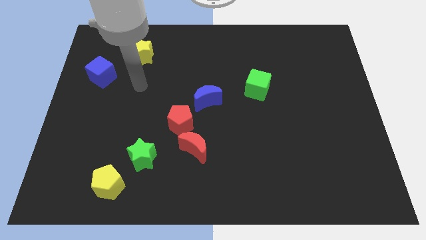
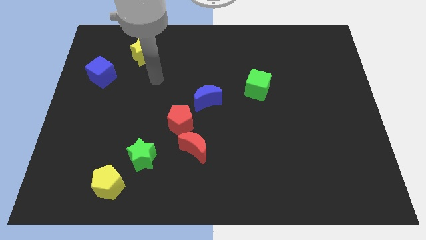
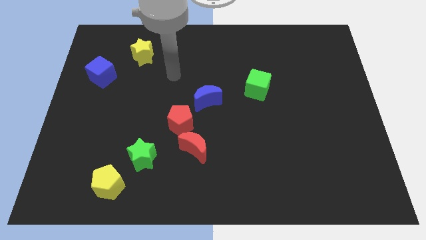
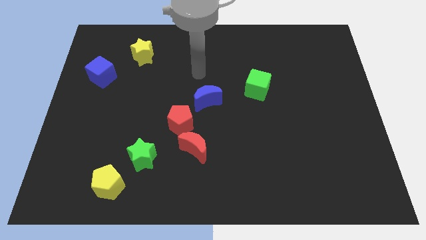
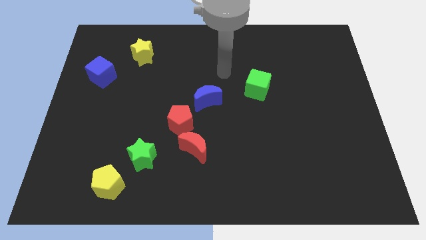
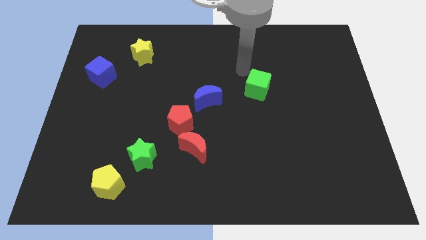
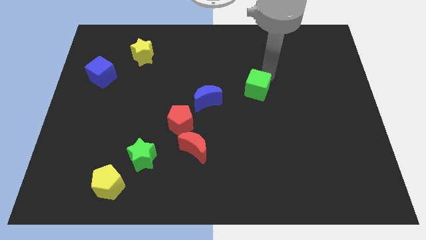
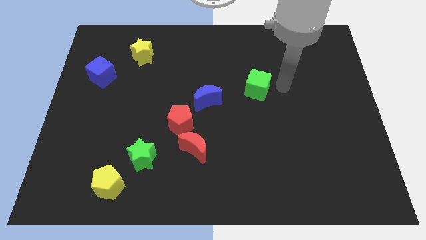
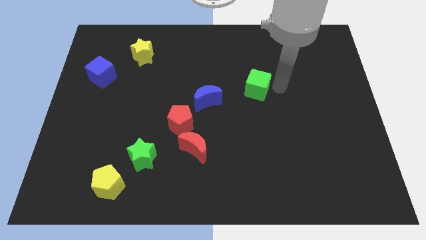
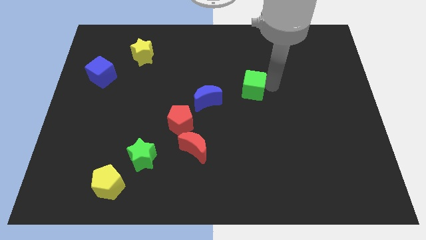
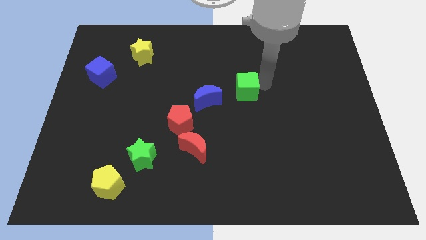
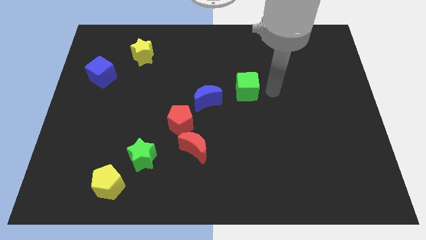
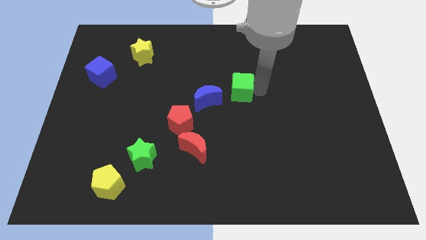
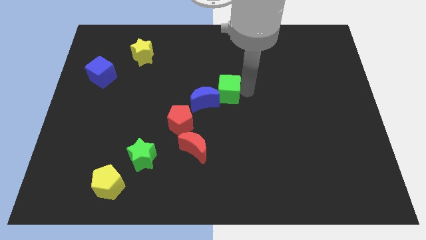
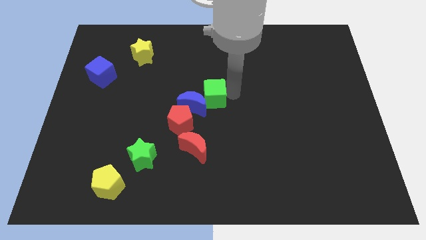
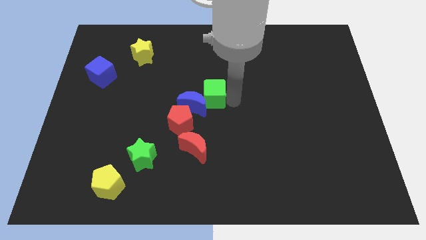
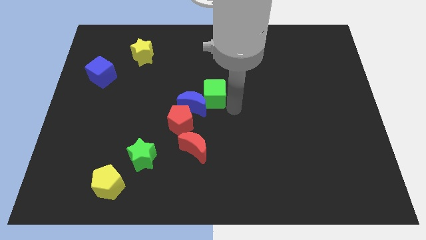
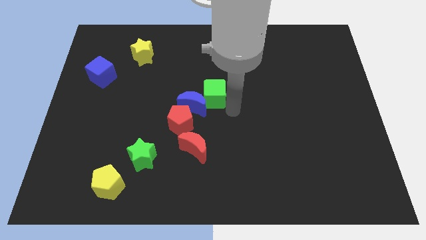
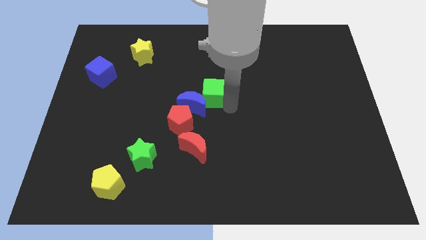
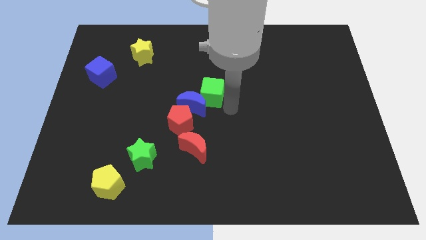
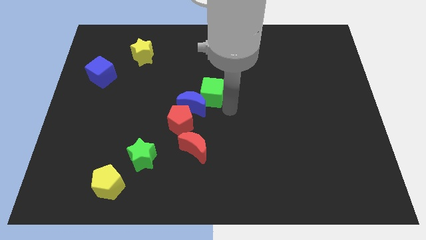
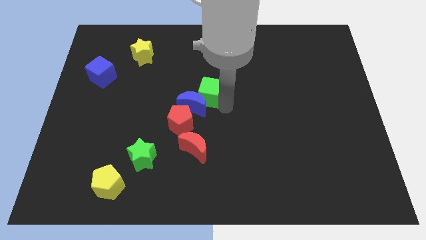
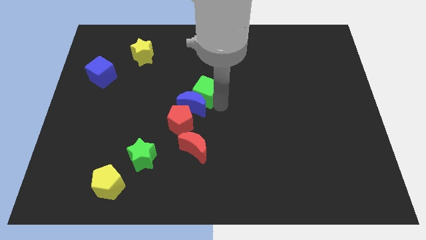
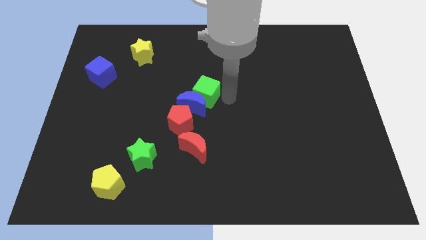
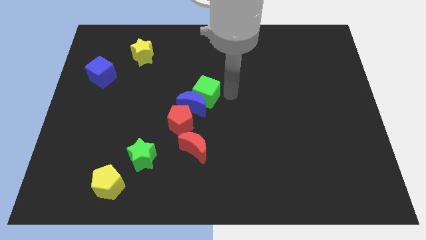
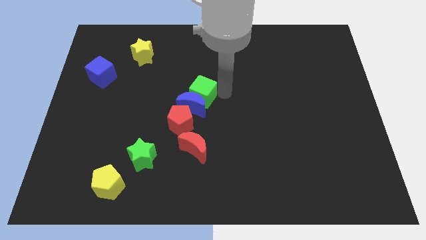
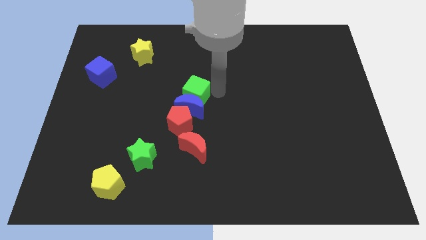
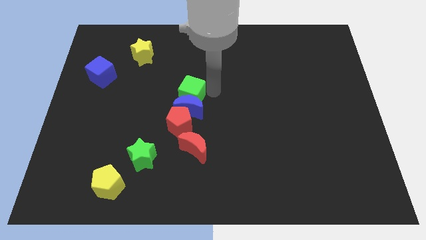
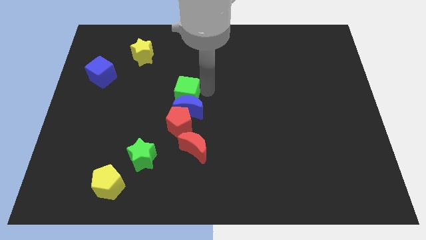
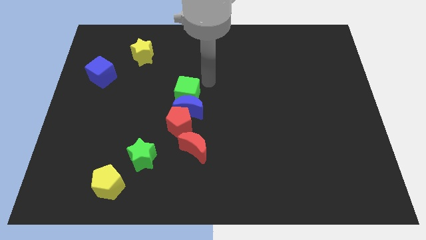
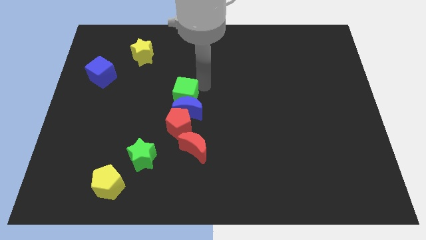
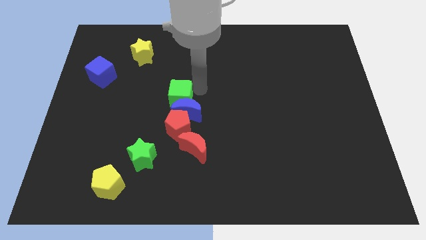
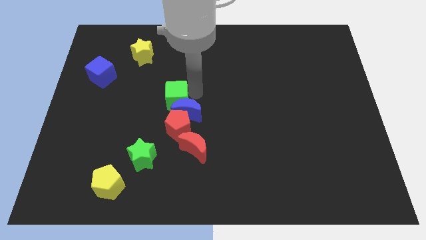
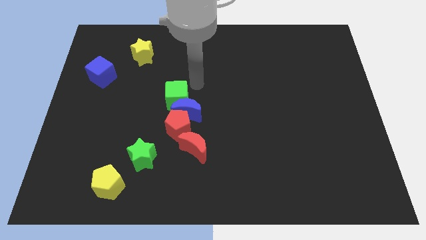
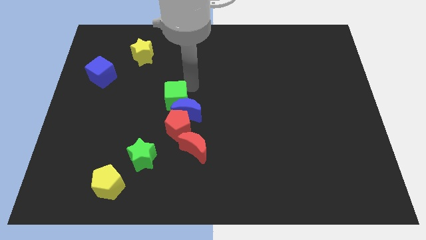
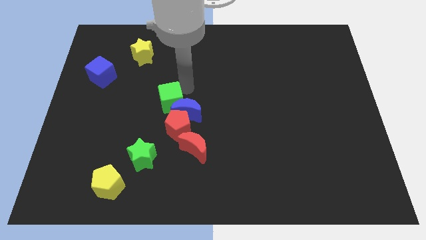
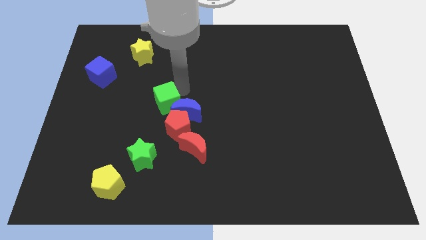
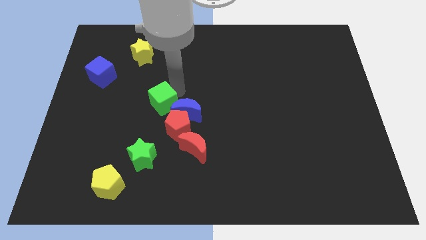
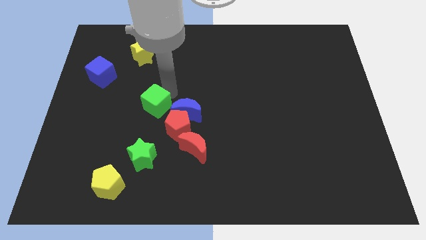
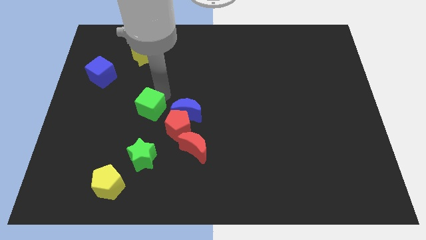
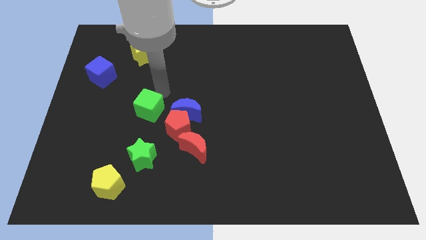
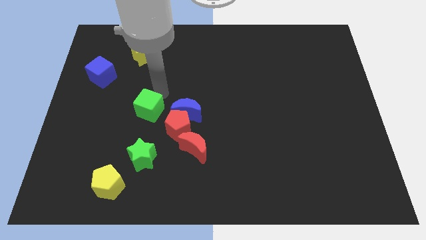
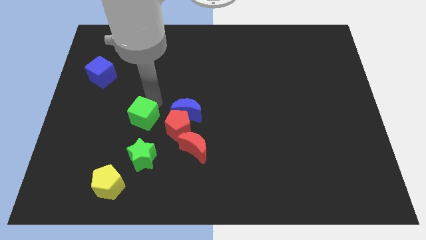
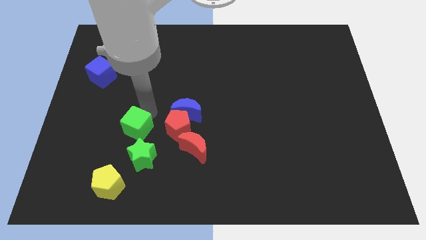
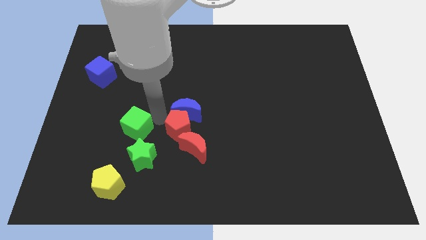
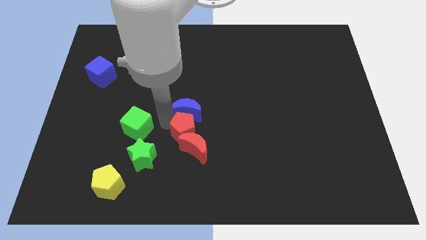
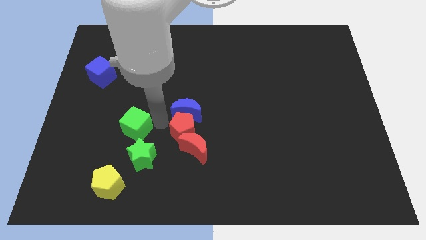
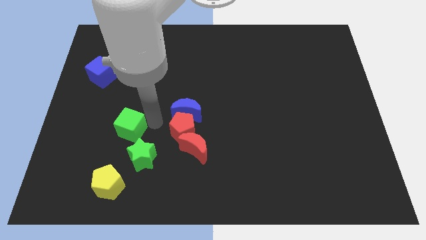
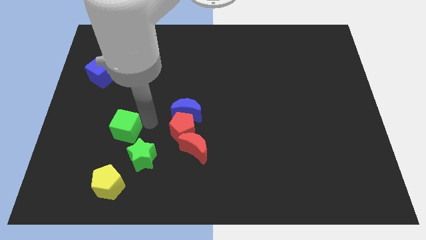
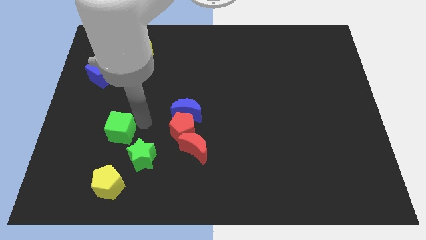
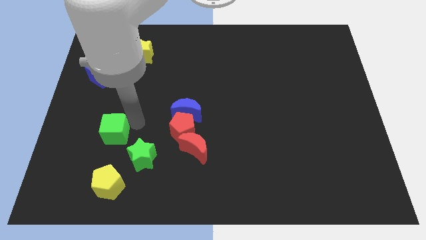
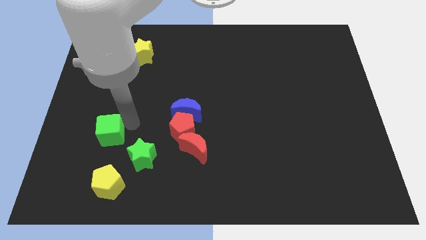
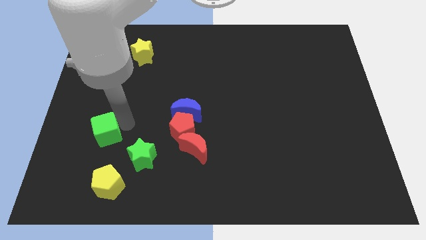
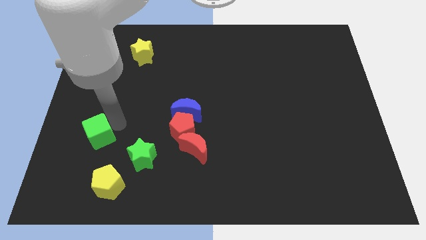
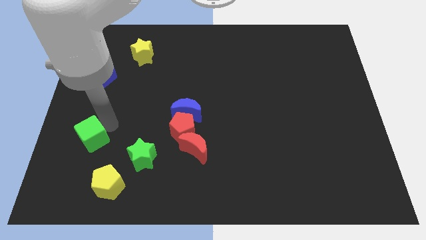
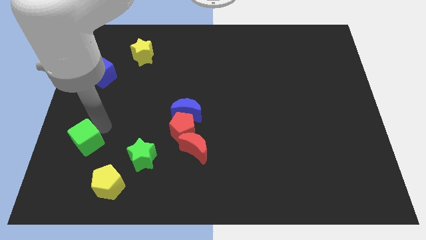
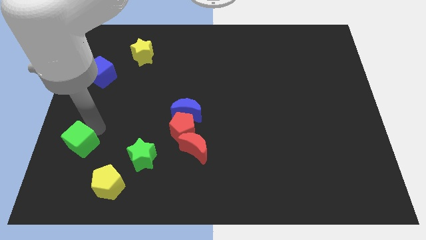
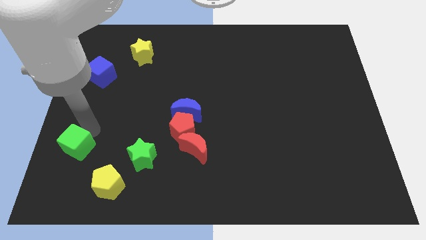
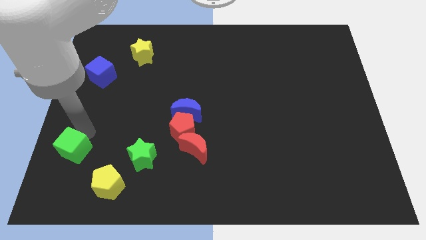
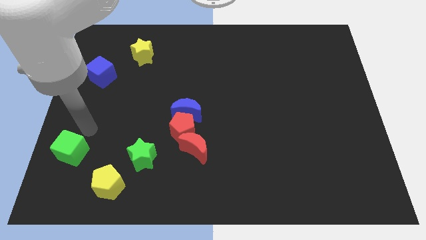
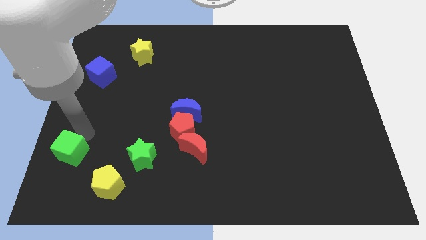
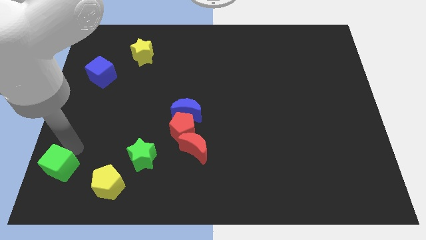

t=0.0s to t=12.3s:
push the green cube to the bottom left corner

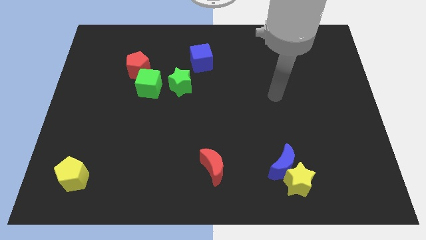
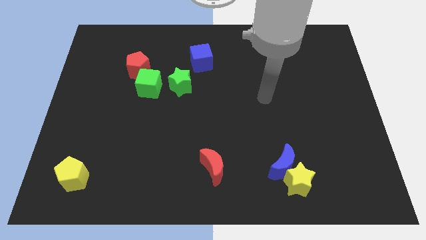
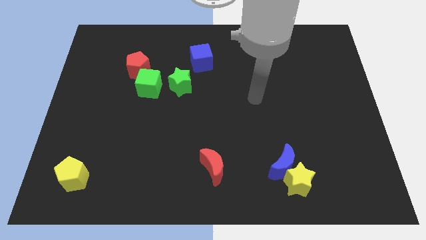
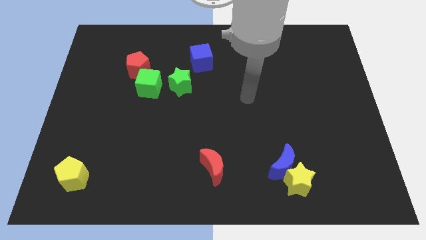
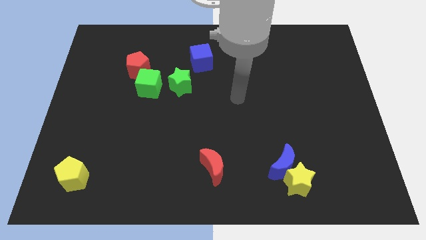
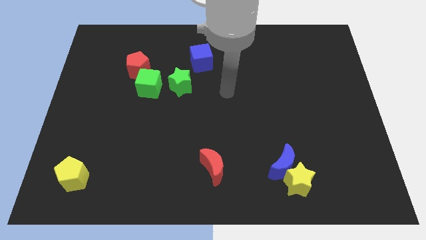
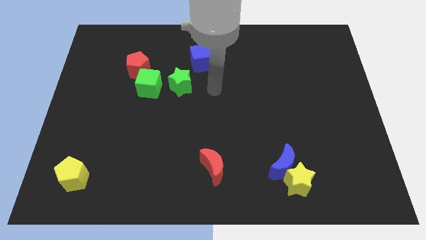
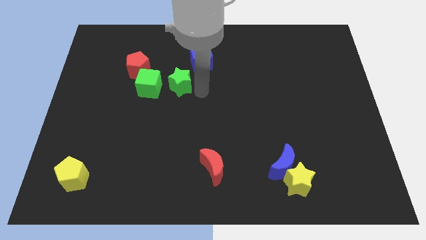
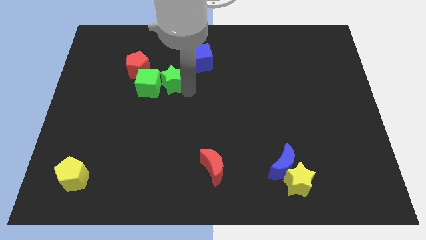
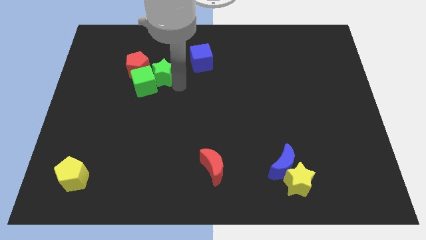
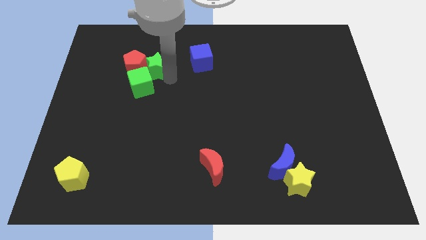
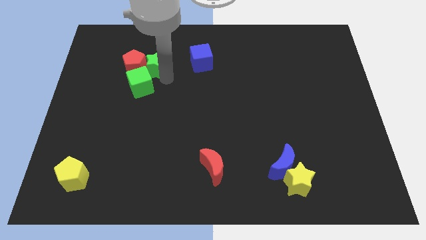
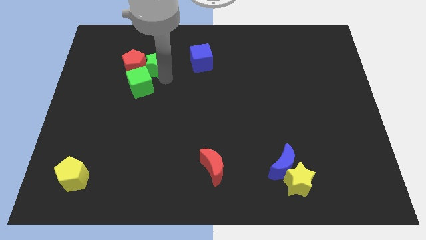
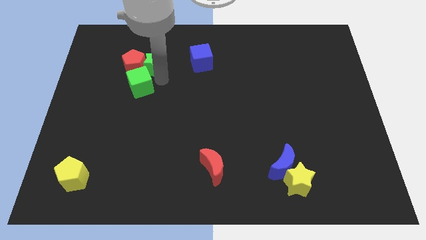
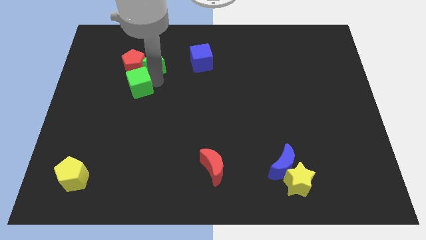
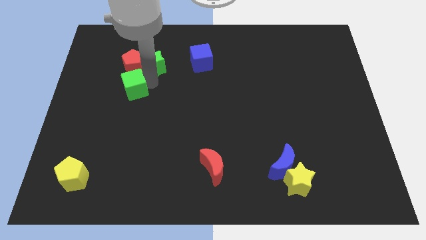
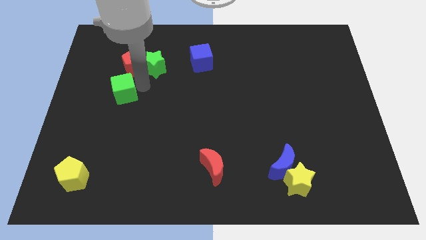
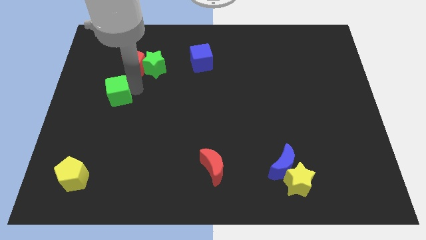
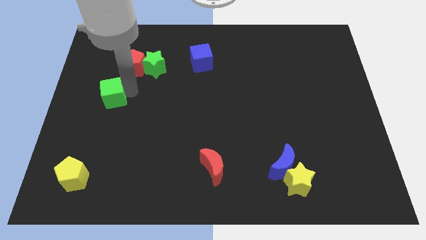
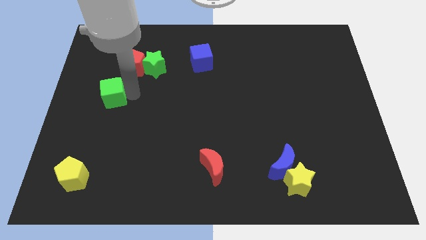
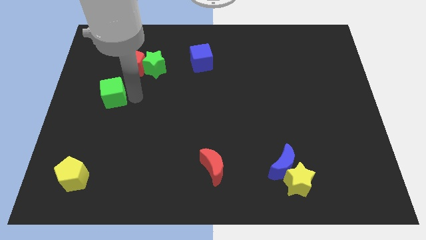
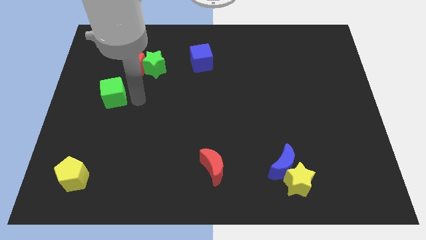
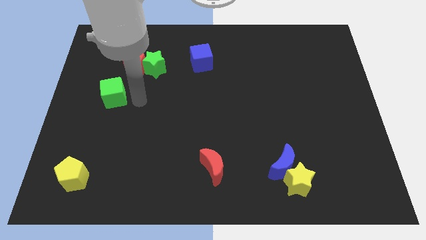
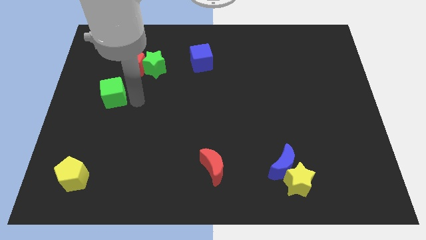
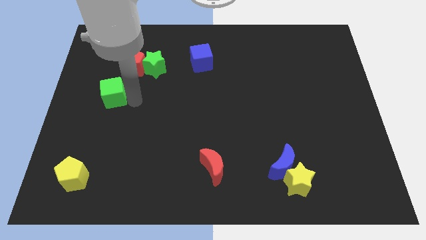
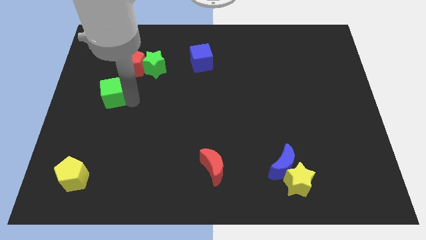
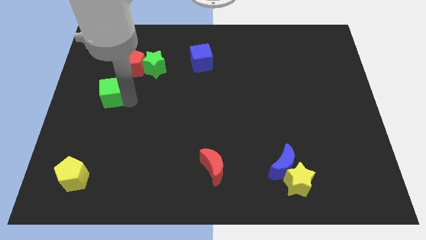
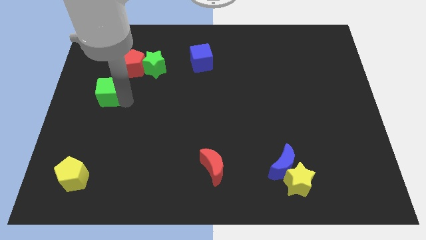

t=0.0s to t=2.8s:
slide the green cube to the left side
